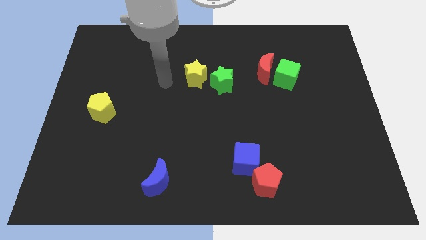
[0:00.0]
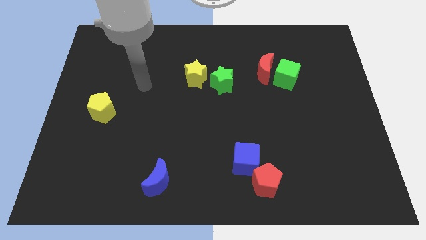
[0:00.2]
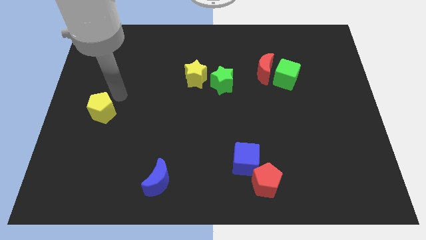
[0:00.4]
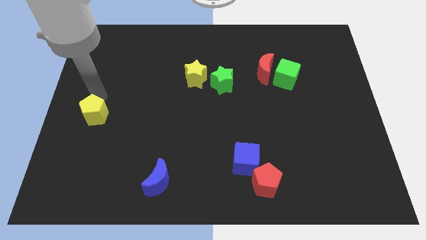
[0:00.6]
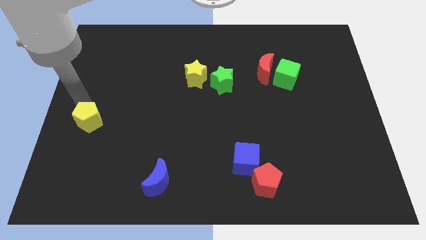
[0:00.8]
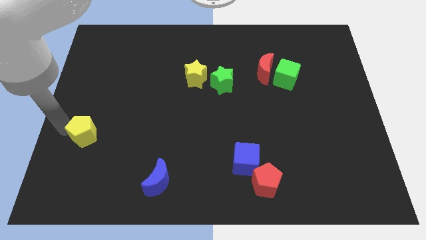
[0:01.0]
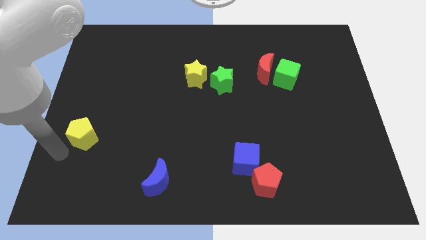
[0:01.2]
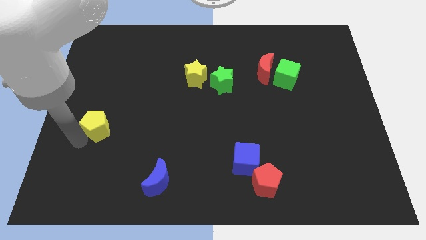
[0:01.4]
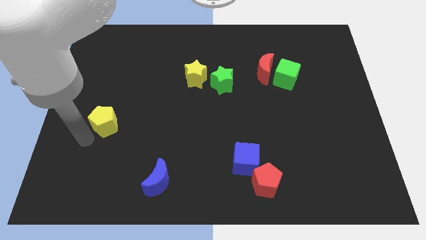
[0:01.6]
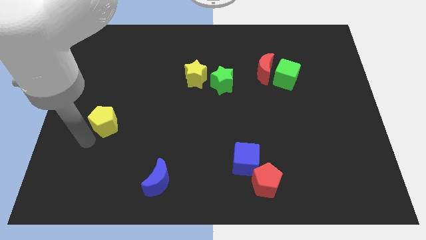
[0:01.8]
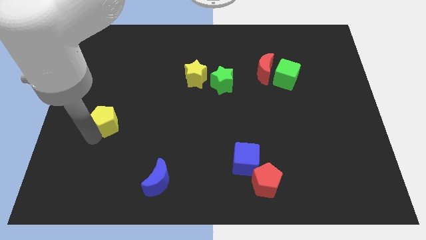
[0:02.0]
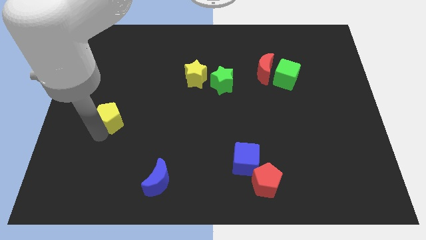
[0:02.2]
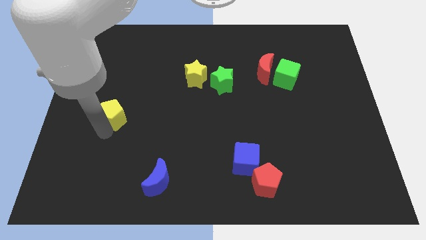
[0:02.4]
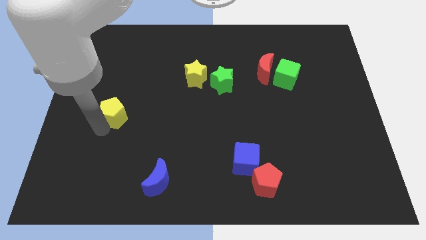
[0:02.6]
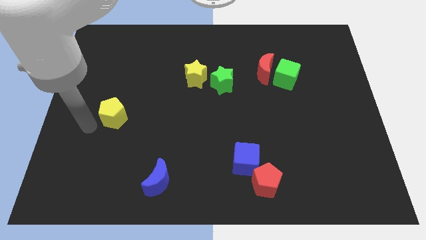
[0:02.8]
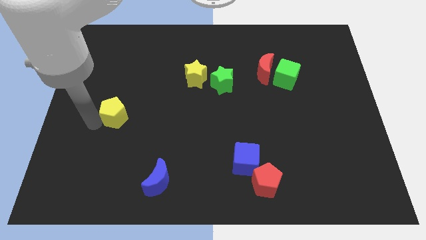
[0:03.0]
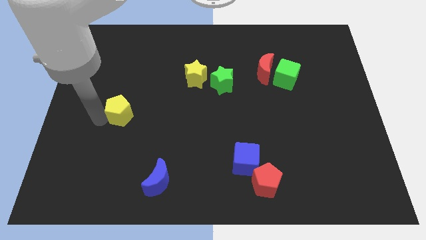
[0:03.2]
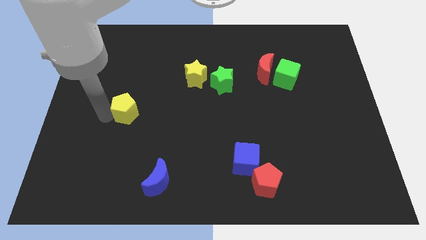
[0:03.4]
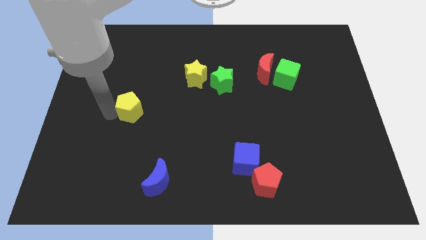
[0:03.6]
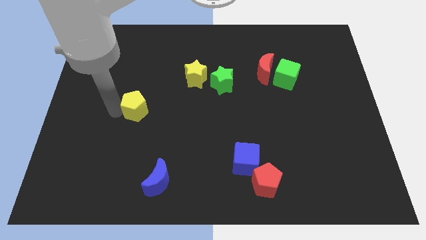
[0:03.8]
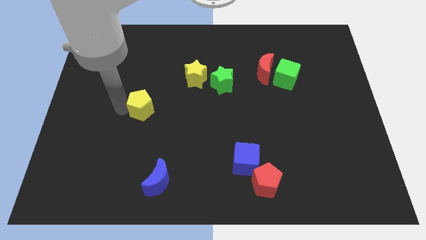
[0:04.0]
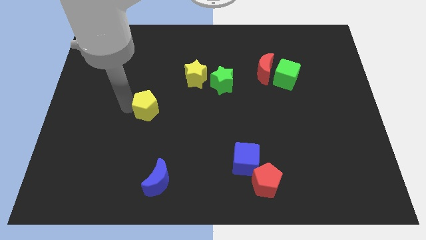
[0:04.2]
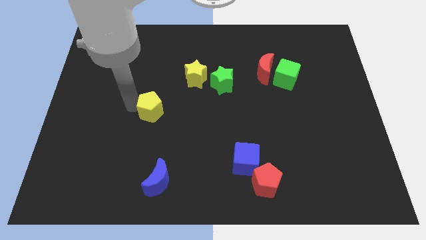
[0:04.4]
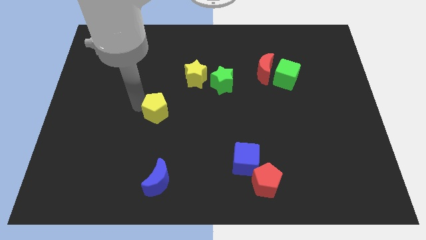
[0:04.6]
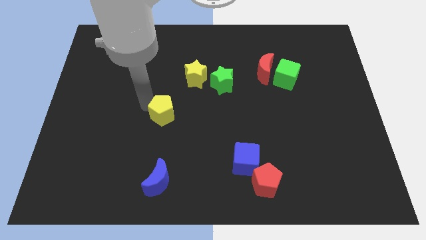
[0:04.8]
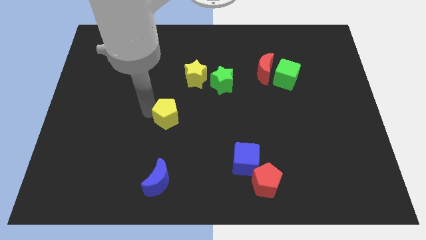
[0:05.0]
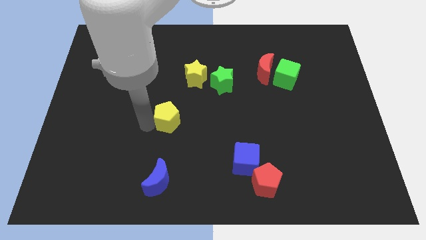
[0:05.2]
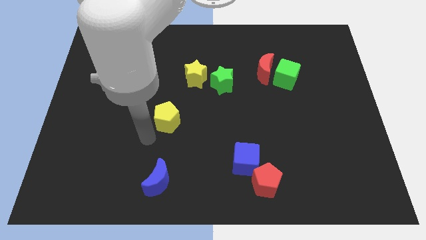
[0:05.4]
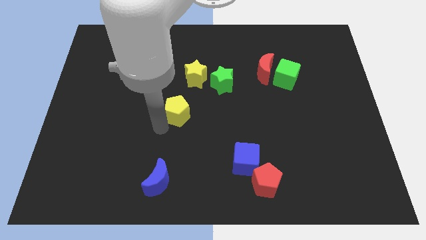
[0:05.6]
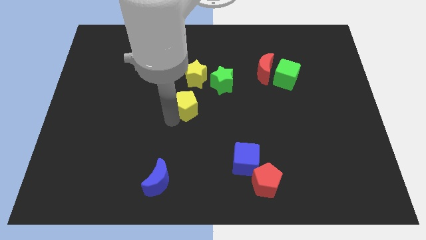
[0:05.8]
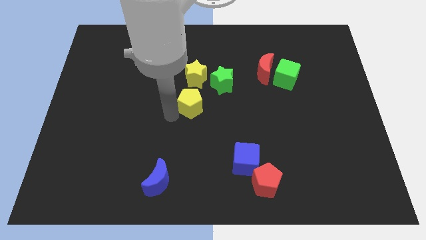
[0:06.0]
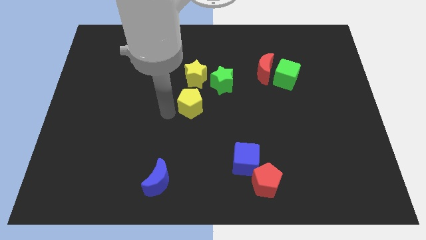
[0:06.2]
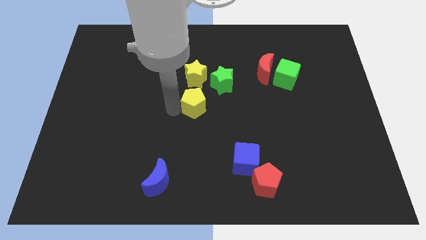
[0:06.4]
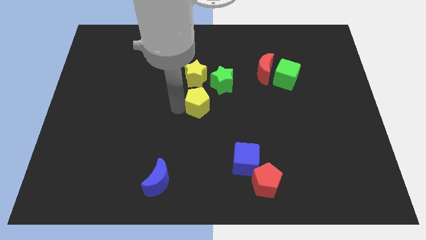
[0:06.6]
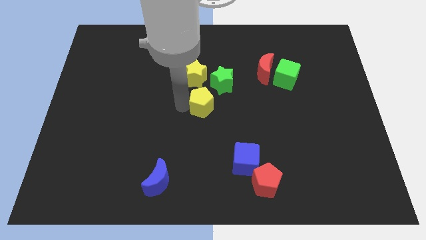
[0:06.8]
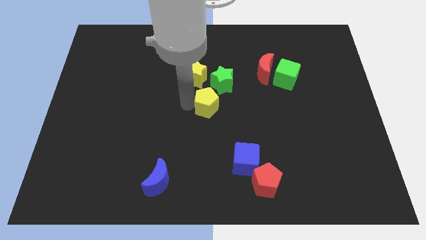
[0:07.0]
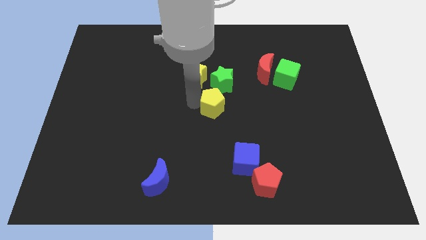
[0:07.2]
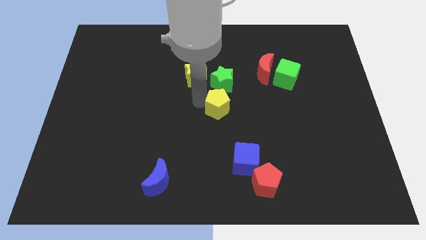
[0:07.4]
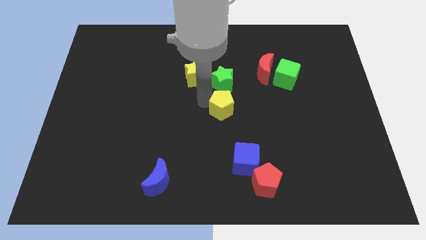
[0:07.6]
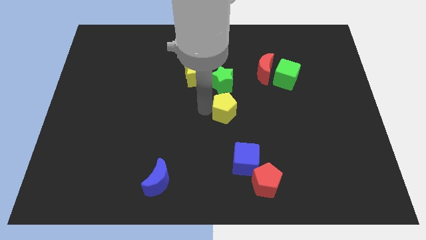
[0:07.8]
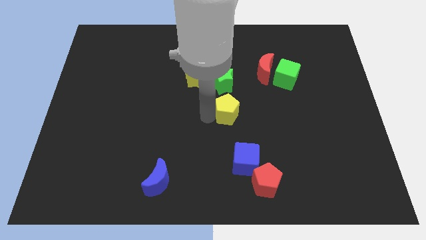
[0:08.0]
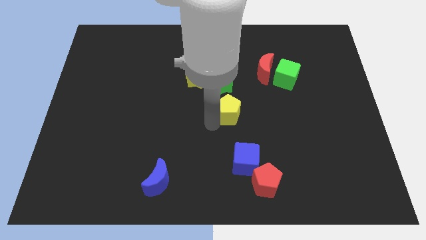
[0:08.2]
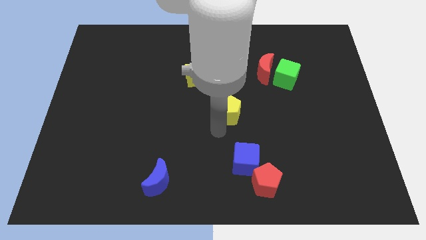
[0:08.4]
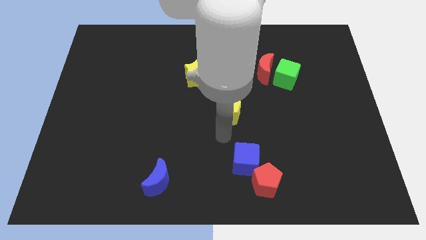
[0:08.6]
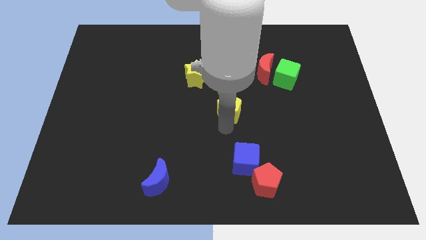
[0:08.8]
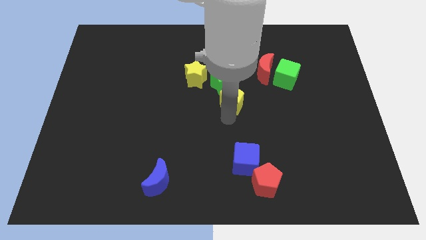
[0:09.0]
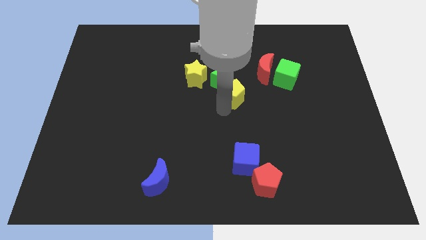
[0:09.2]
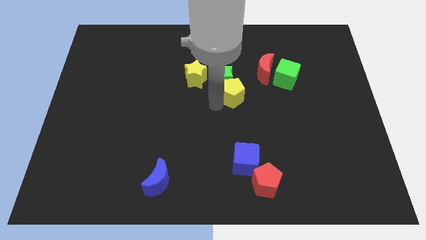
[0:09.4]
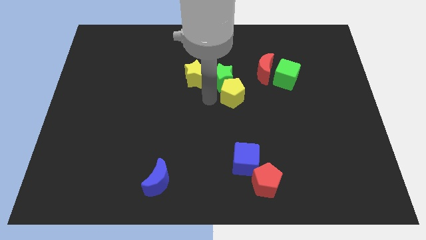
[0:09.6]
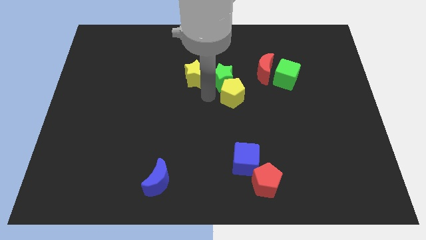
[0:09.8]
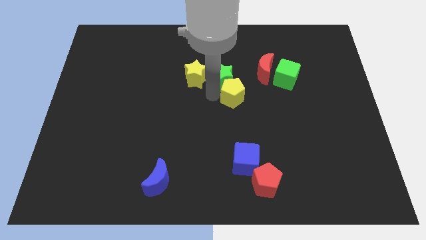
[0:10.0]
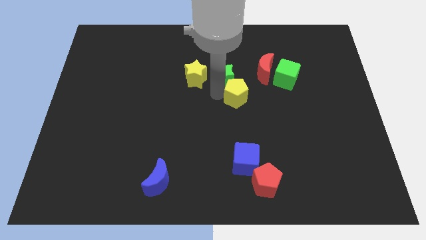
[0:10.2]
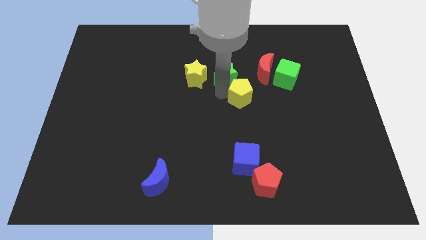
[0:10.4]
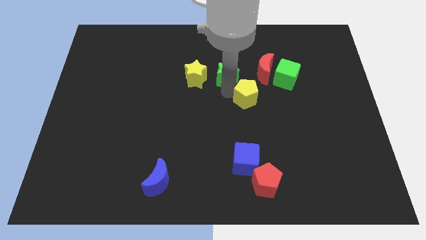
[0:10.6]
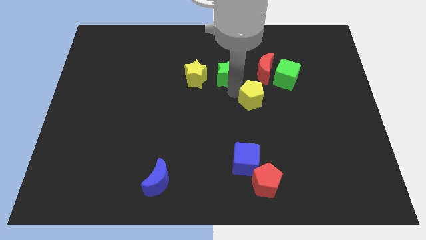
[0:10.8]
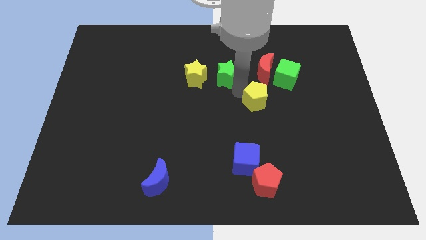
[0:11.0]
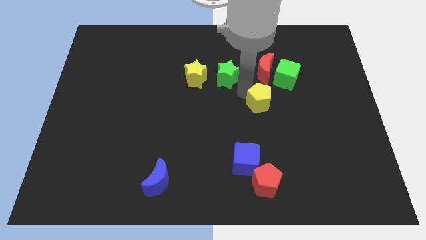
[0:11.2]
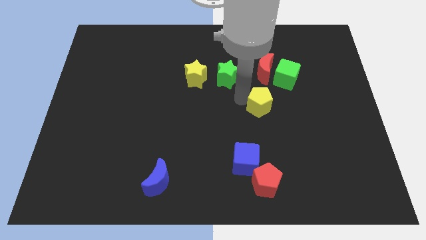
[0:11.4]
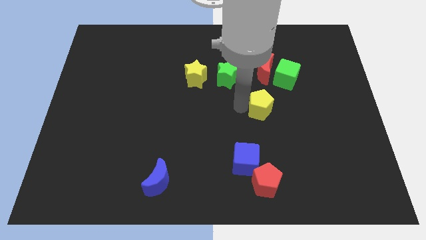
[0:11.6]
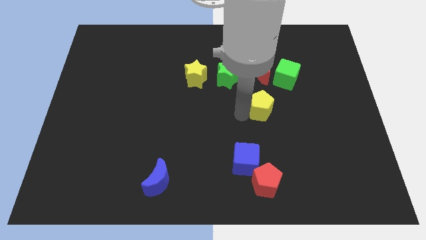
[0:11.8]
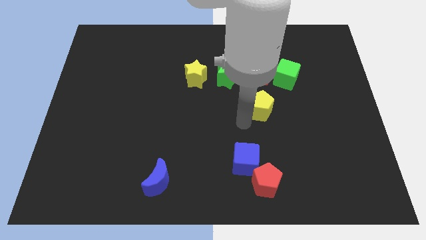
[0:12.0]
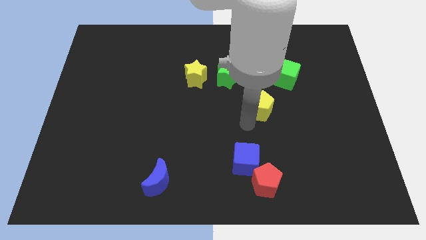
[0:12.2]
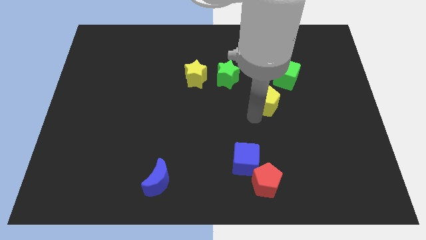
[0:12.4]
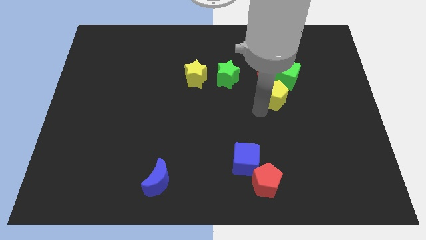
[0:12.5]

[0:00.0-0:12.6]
put the yellow pentagon to the bottom right of the red moon

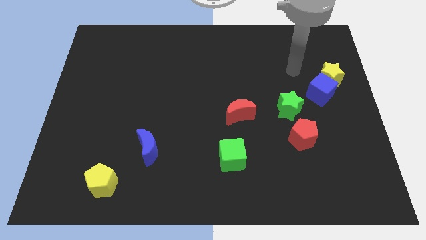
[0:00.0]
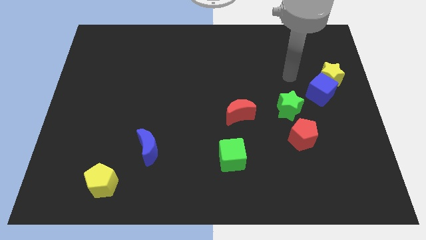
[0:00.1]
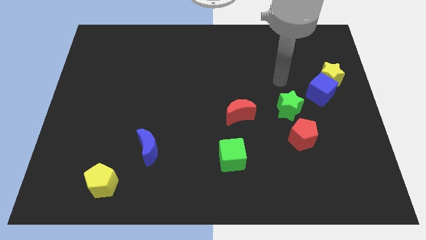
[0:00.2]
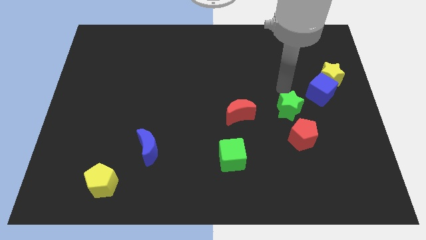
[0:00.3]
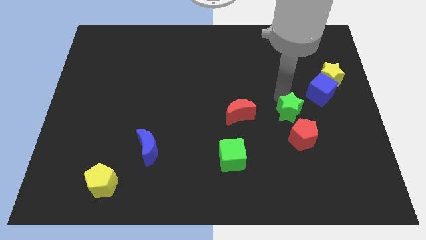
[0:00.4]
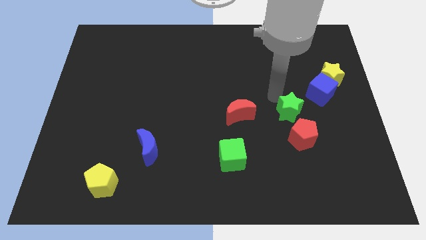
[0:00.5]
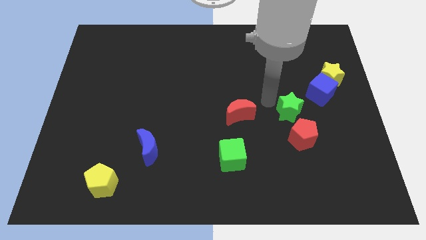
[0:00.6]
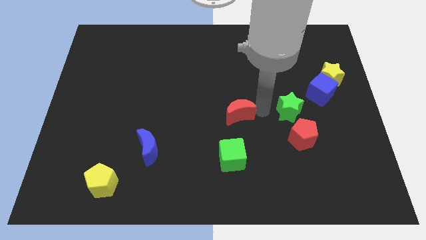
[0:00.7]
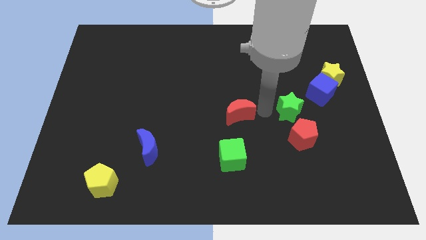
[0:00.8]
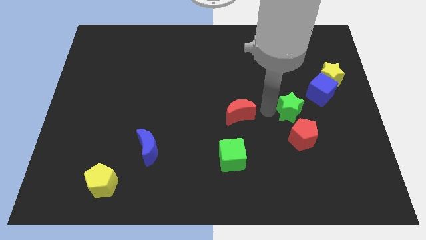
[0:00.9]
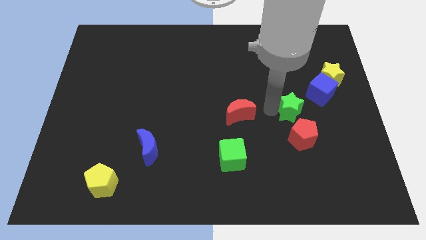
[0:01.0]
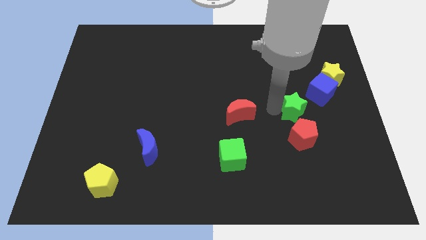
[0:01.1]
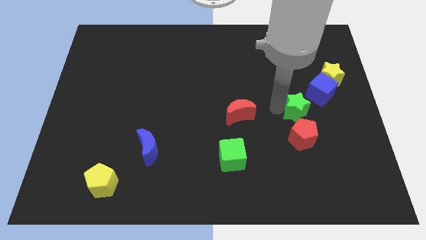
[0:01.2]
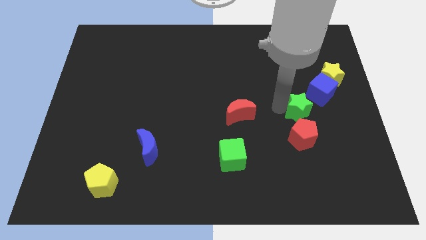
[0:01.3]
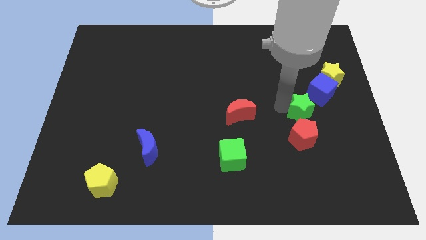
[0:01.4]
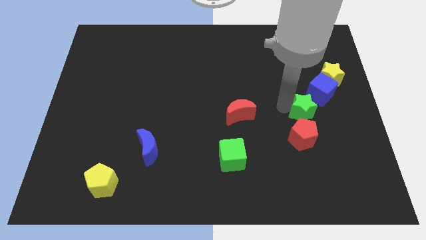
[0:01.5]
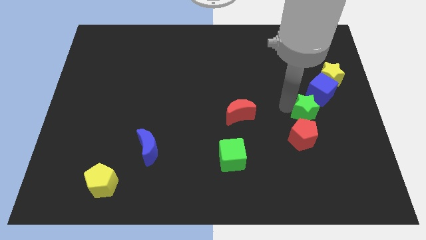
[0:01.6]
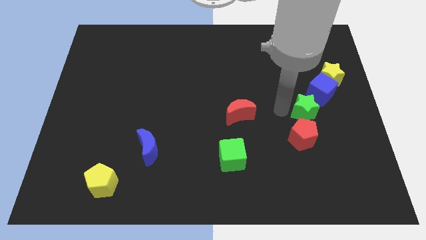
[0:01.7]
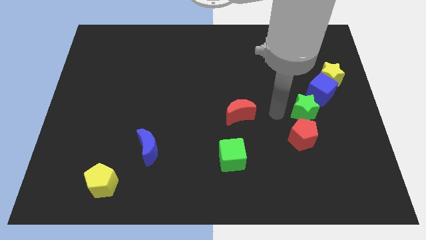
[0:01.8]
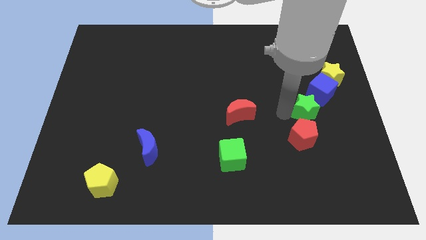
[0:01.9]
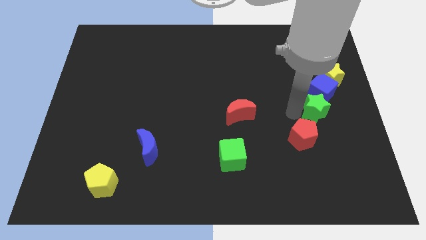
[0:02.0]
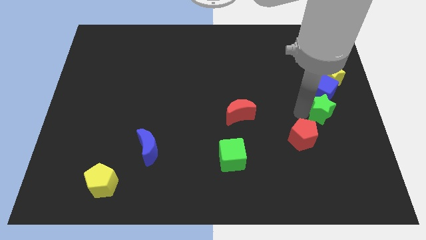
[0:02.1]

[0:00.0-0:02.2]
slide the green star to the bottom of the yellow star
